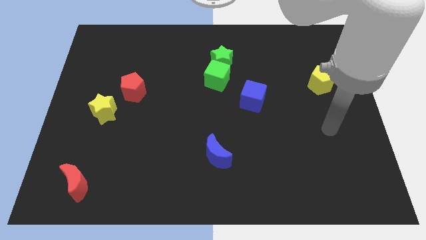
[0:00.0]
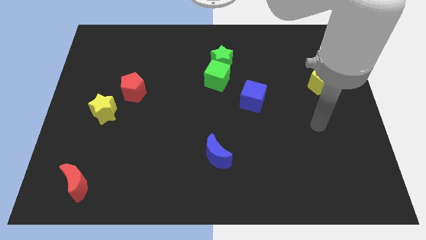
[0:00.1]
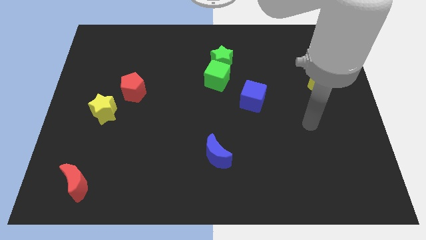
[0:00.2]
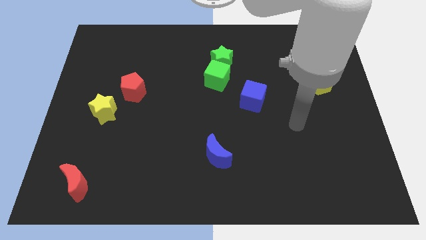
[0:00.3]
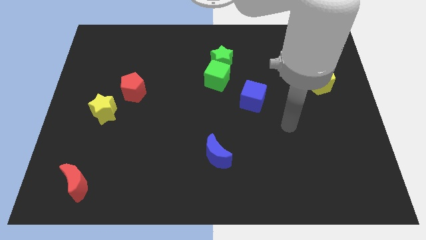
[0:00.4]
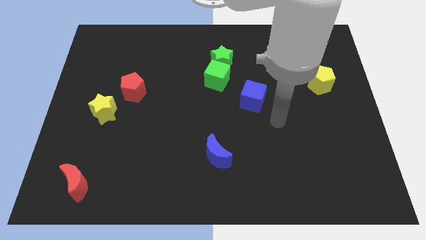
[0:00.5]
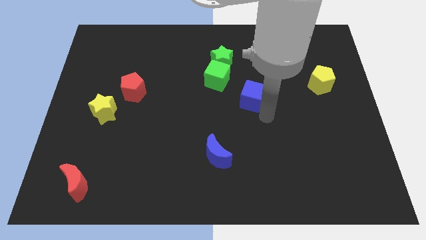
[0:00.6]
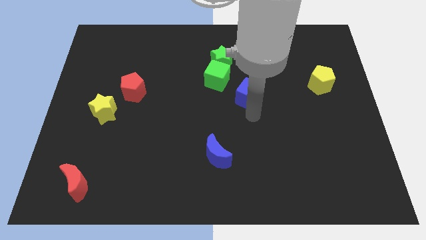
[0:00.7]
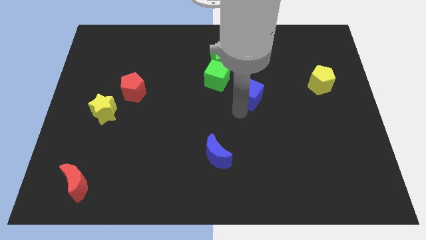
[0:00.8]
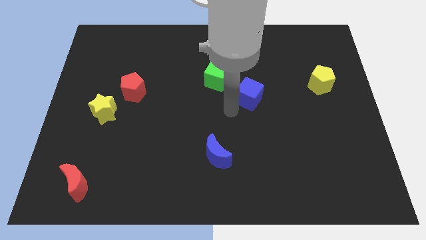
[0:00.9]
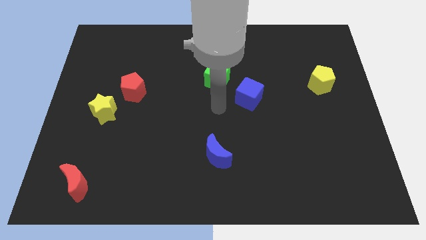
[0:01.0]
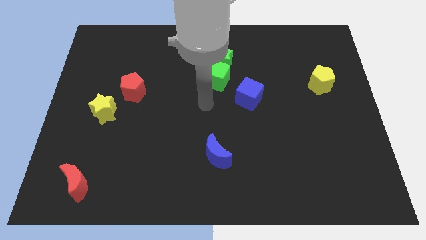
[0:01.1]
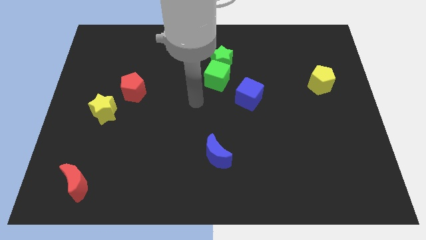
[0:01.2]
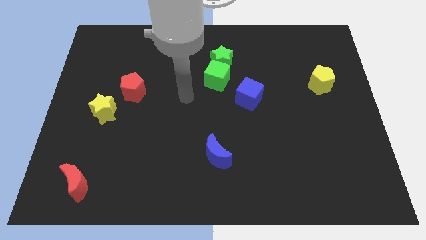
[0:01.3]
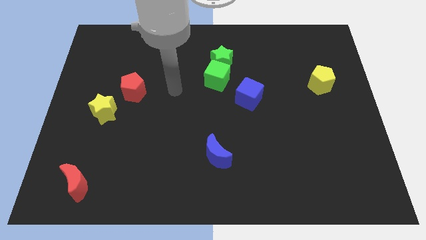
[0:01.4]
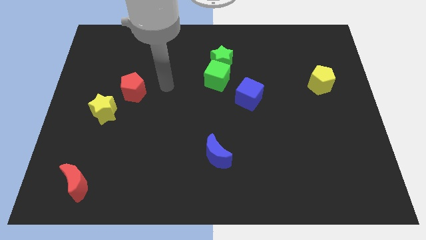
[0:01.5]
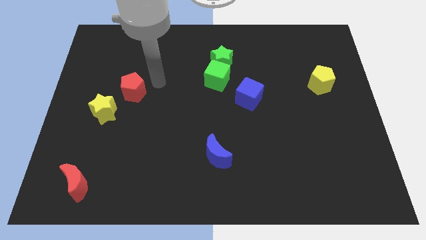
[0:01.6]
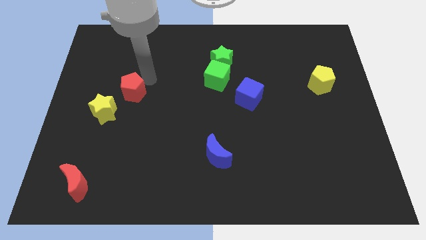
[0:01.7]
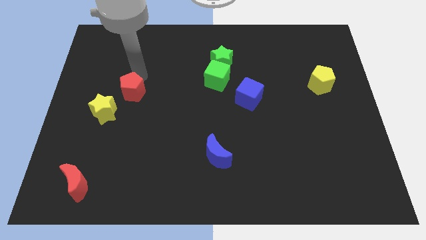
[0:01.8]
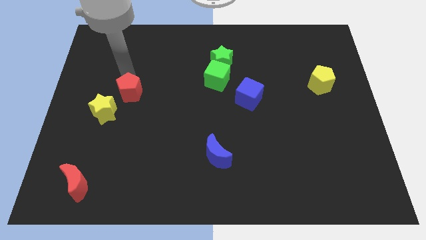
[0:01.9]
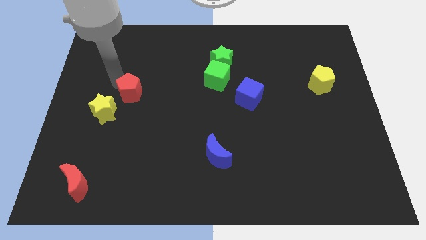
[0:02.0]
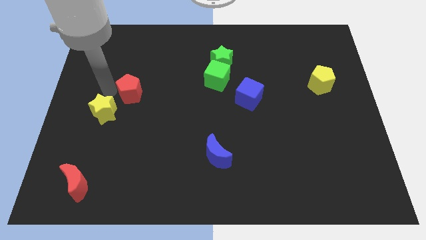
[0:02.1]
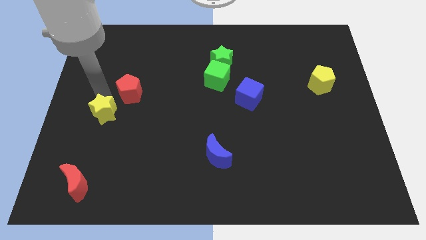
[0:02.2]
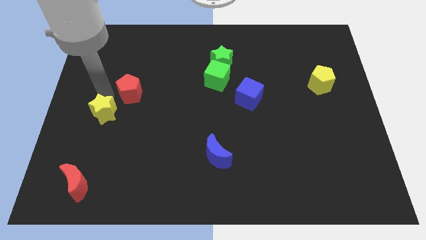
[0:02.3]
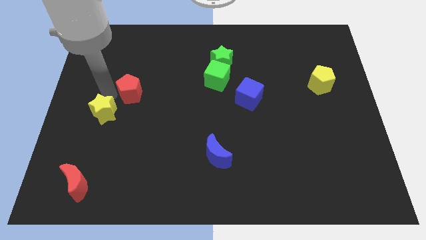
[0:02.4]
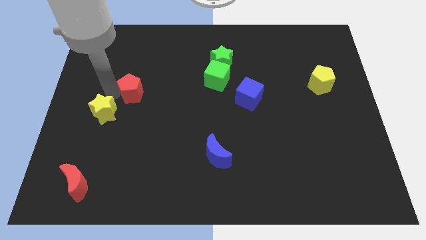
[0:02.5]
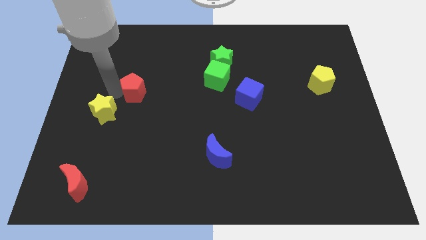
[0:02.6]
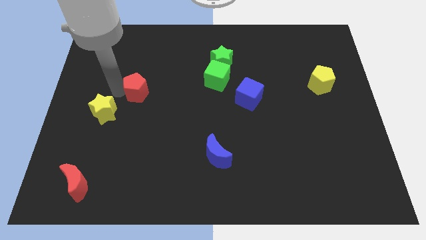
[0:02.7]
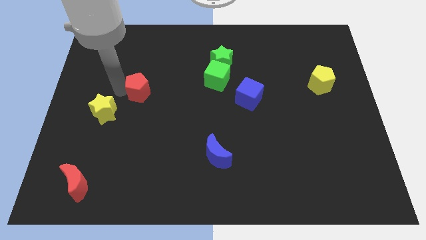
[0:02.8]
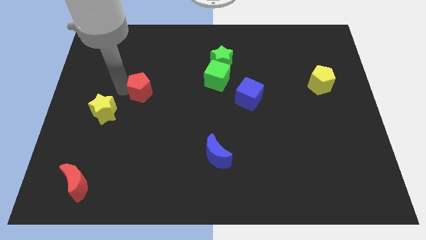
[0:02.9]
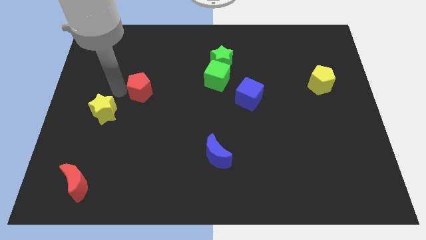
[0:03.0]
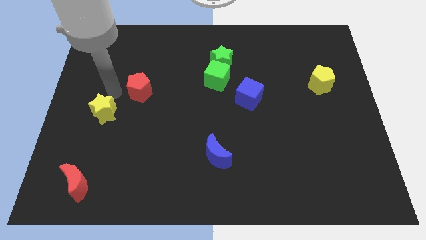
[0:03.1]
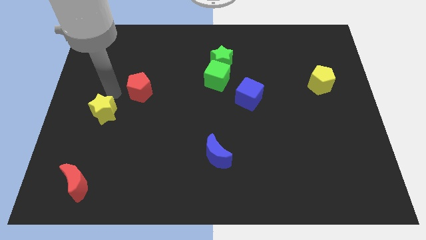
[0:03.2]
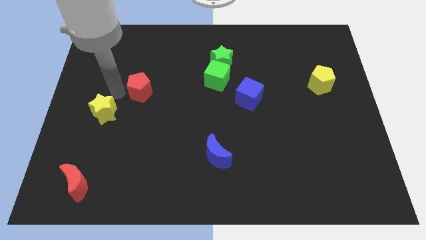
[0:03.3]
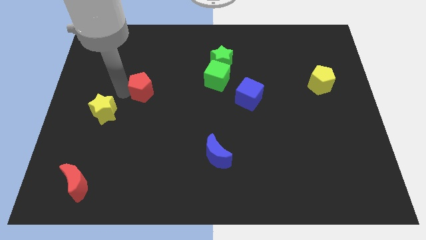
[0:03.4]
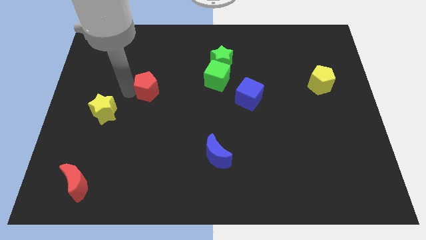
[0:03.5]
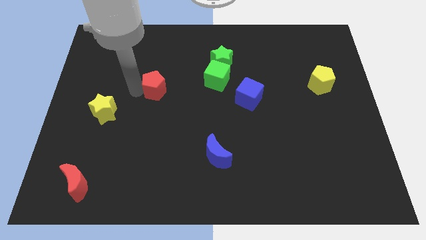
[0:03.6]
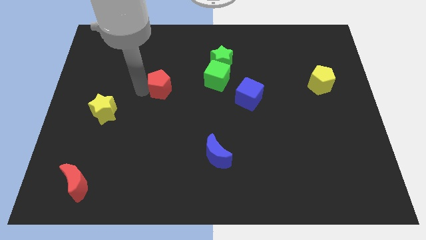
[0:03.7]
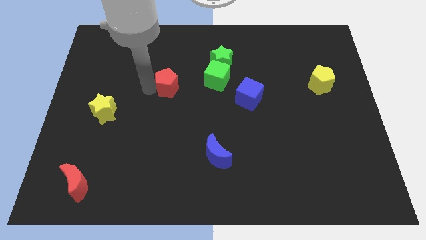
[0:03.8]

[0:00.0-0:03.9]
slide the red pentagon right slightly

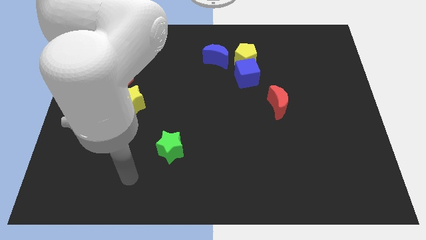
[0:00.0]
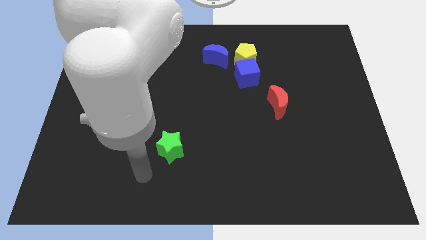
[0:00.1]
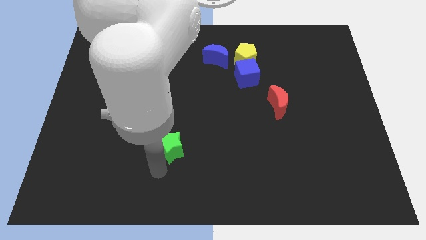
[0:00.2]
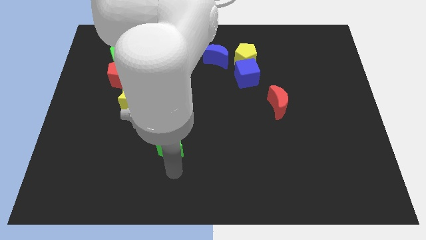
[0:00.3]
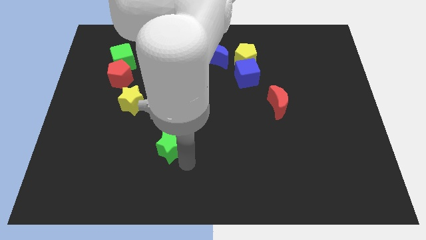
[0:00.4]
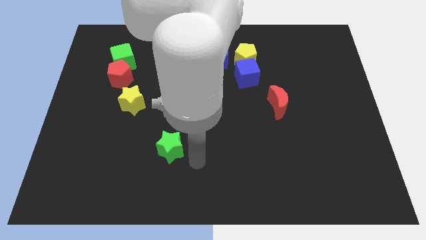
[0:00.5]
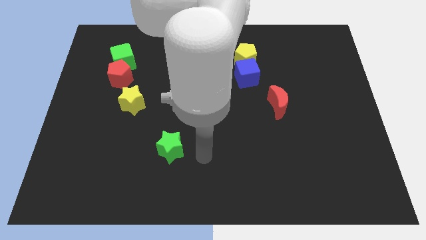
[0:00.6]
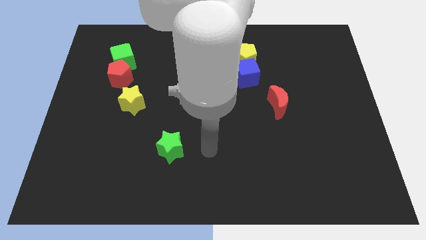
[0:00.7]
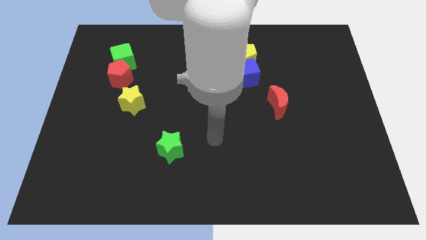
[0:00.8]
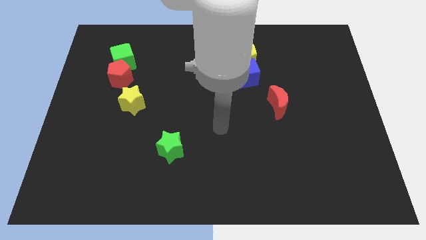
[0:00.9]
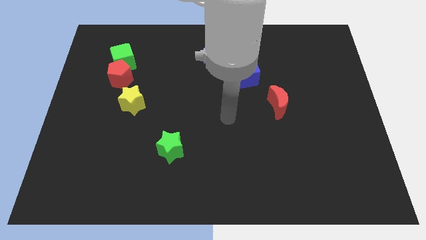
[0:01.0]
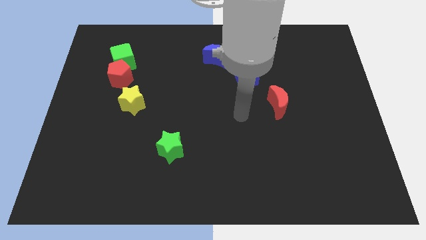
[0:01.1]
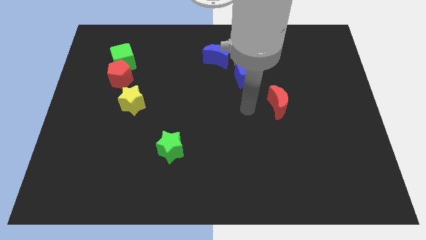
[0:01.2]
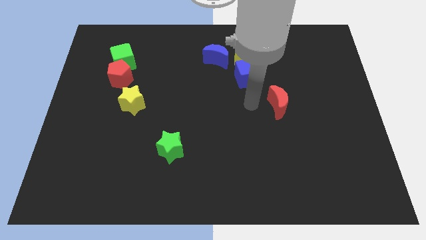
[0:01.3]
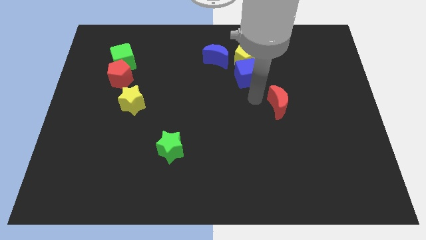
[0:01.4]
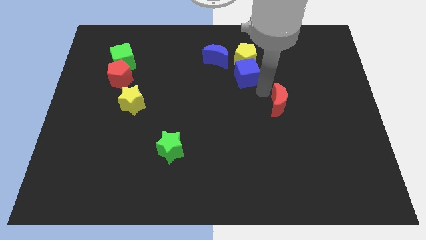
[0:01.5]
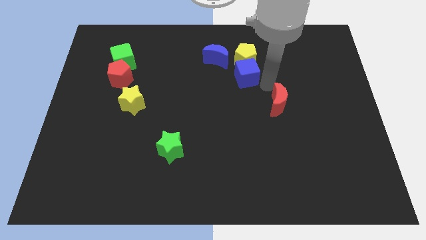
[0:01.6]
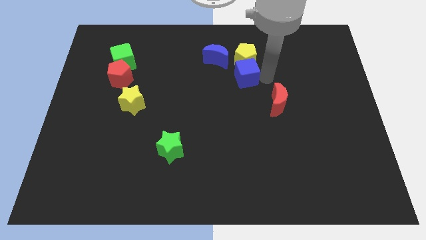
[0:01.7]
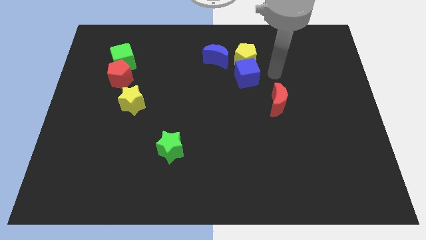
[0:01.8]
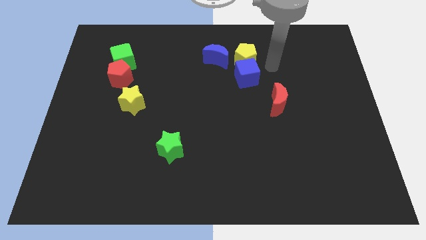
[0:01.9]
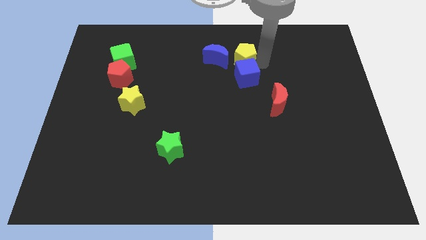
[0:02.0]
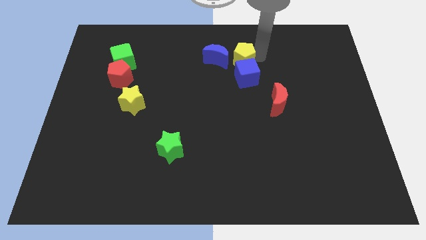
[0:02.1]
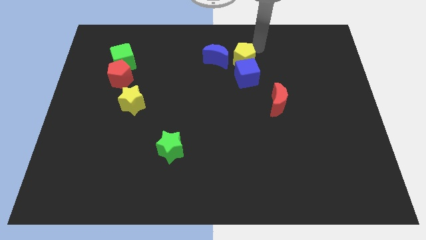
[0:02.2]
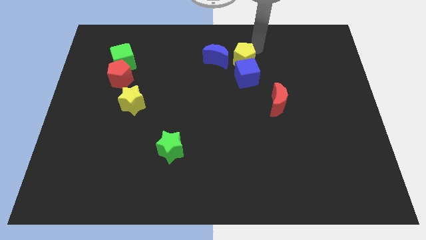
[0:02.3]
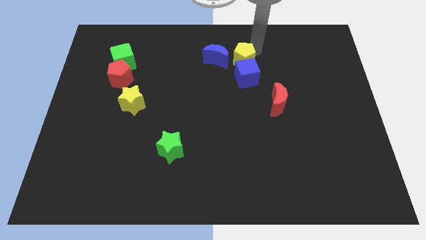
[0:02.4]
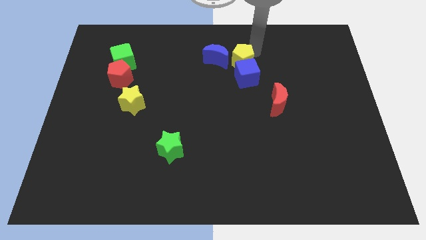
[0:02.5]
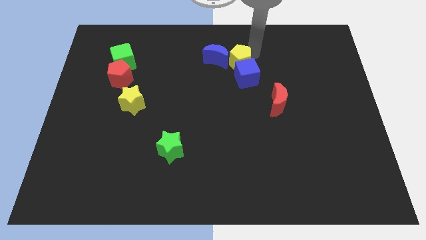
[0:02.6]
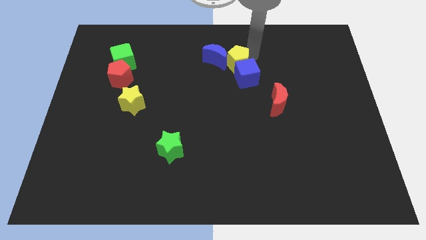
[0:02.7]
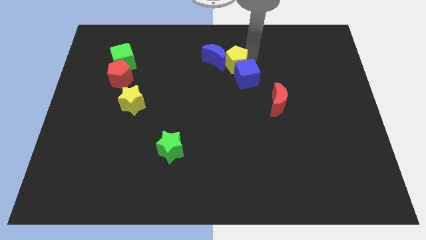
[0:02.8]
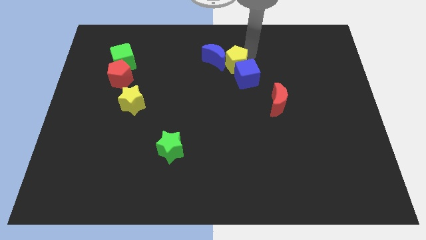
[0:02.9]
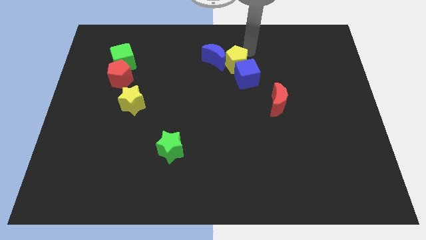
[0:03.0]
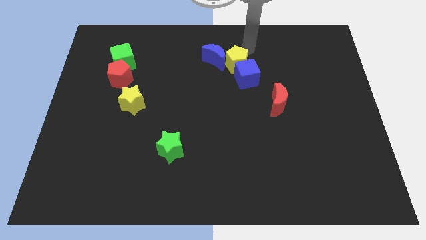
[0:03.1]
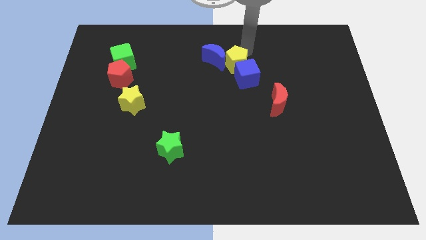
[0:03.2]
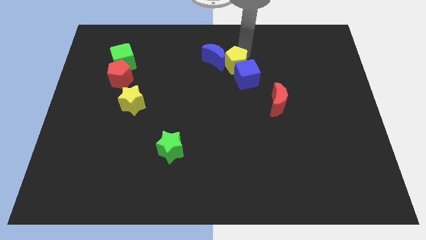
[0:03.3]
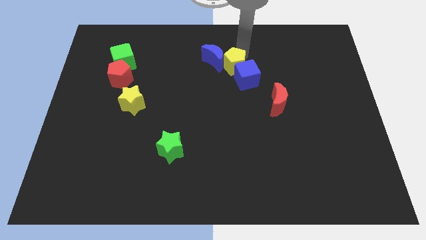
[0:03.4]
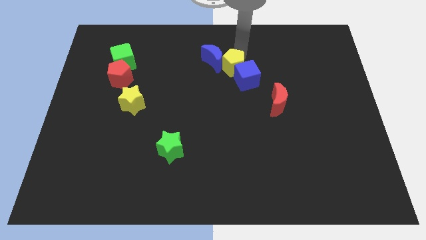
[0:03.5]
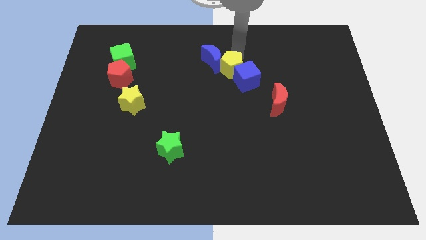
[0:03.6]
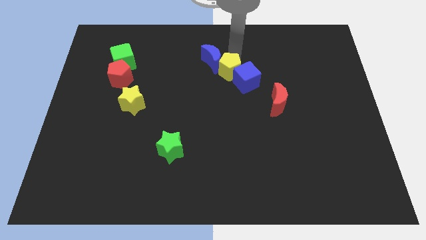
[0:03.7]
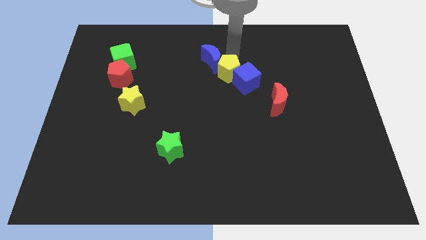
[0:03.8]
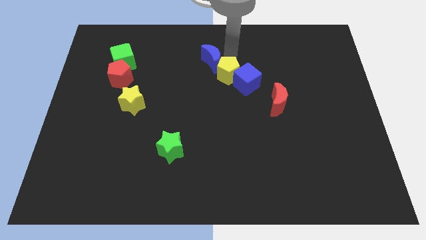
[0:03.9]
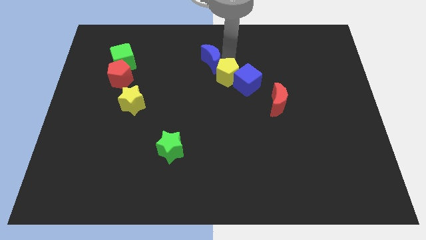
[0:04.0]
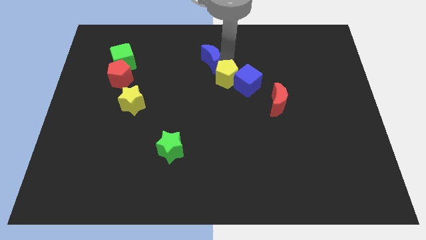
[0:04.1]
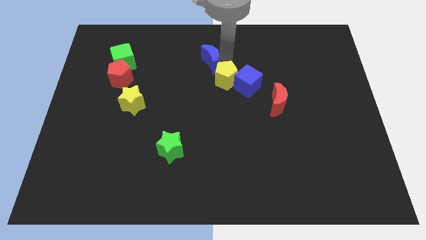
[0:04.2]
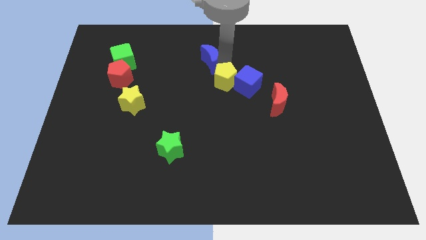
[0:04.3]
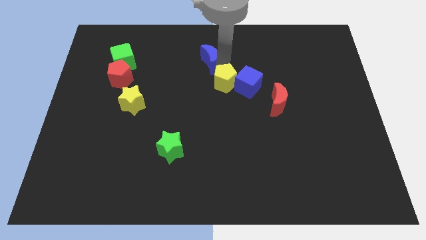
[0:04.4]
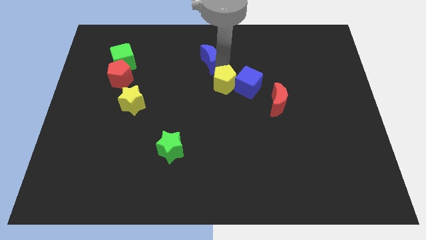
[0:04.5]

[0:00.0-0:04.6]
push the yellow pentagon down a little bit
